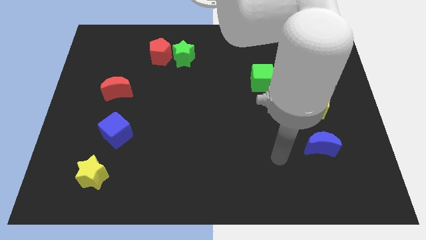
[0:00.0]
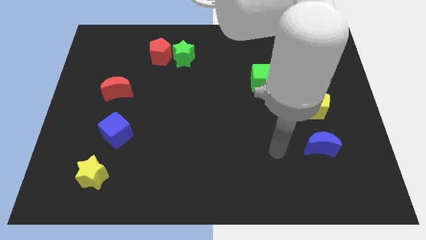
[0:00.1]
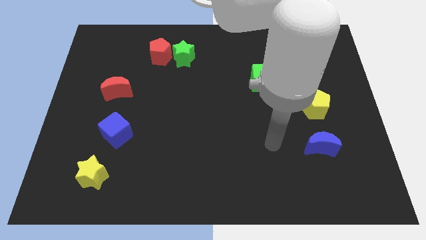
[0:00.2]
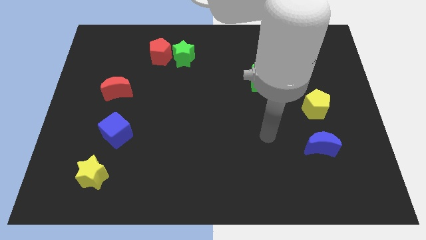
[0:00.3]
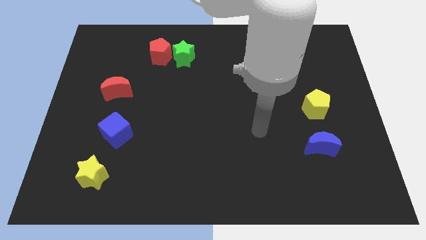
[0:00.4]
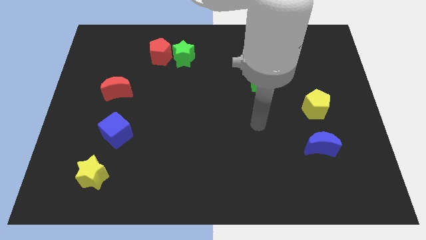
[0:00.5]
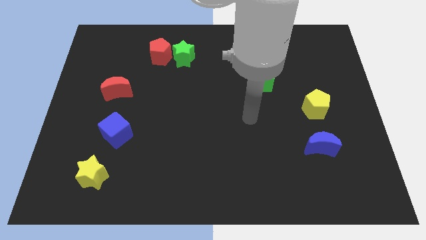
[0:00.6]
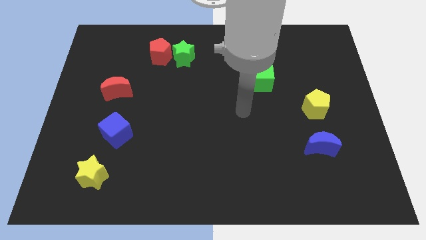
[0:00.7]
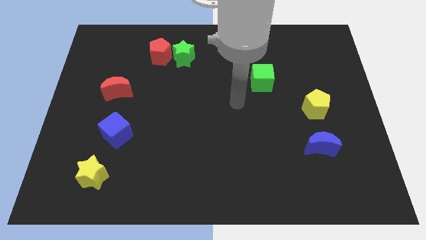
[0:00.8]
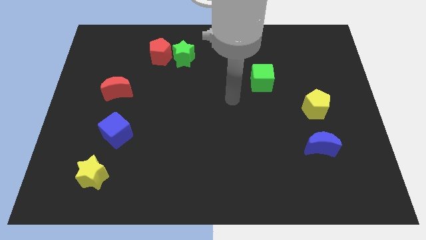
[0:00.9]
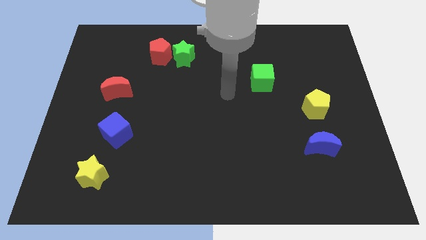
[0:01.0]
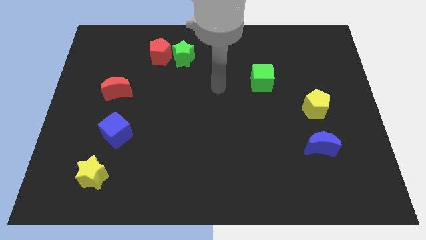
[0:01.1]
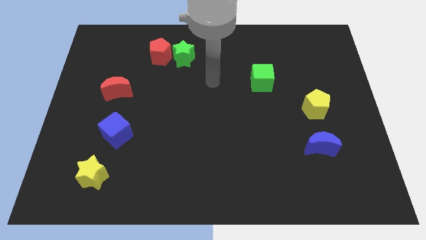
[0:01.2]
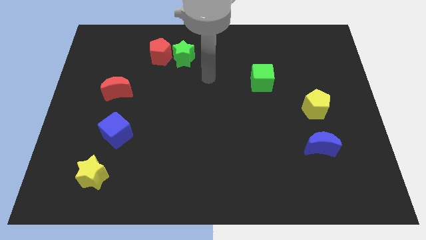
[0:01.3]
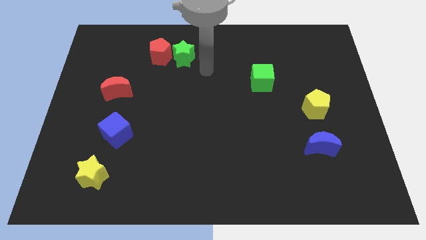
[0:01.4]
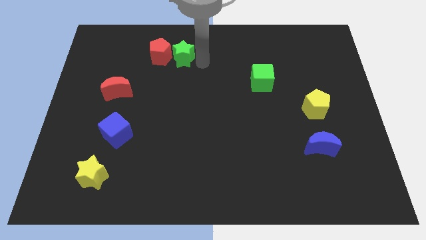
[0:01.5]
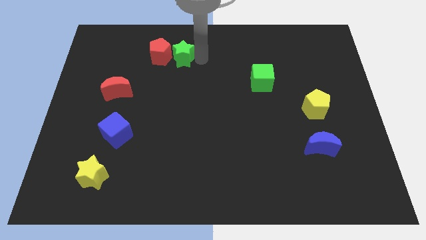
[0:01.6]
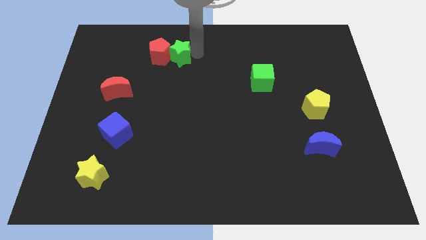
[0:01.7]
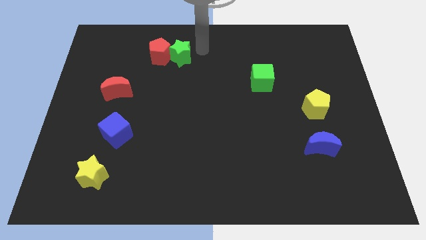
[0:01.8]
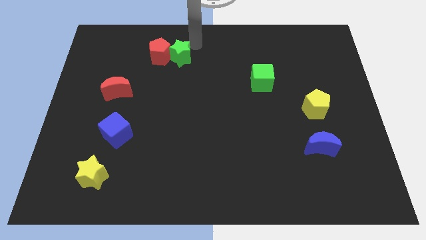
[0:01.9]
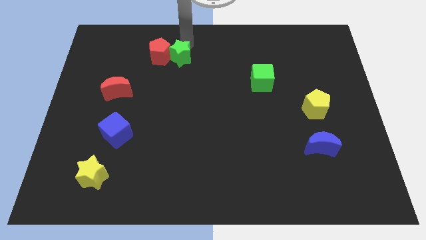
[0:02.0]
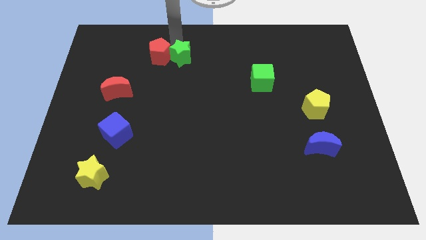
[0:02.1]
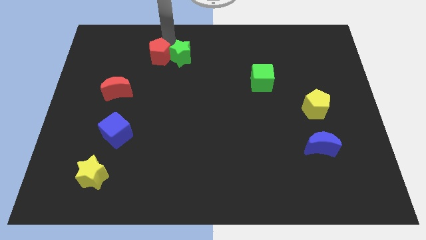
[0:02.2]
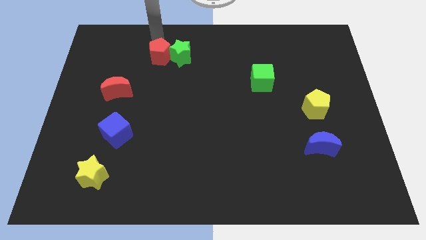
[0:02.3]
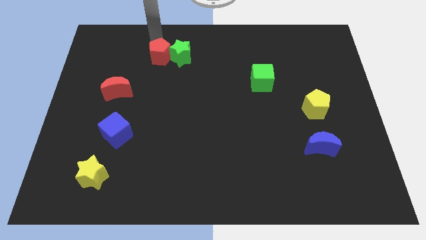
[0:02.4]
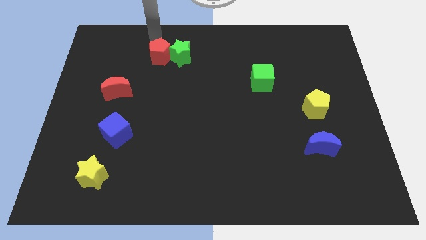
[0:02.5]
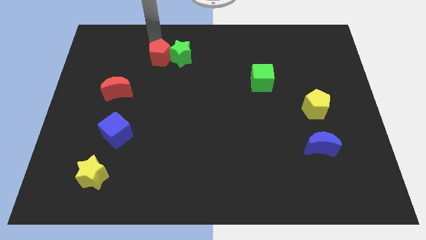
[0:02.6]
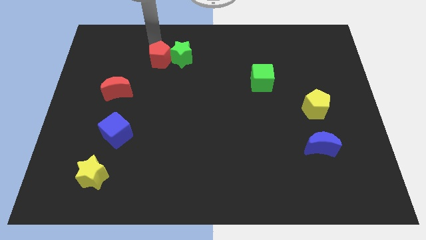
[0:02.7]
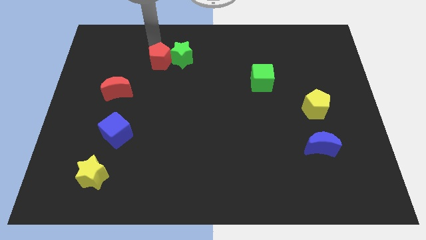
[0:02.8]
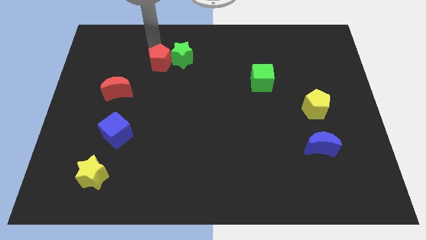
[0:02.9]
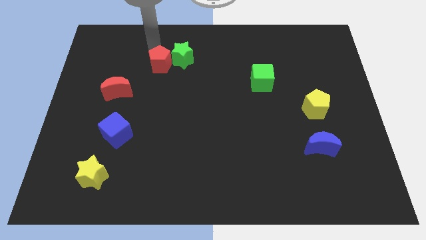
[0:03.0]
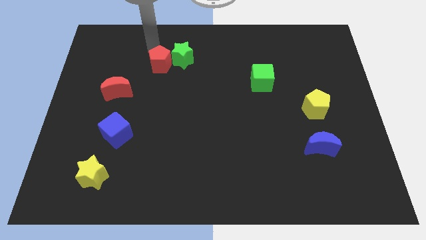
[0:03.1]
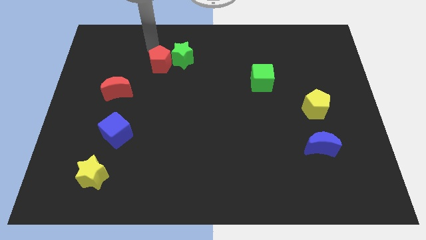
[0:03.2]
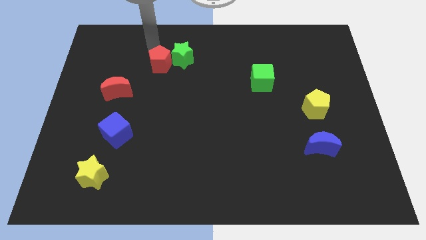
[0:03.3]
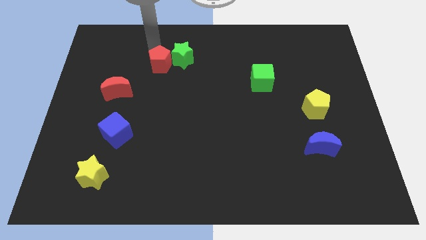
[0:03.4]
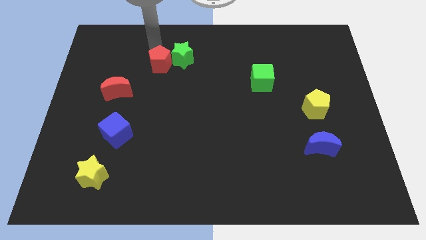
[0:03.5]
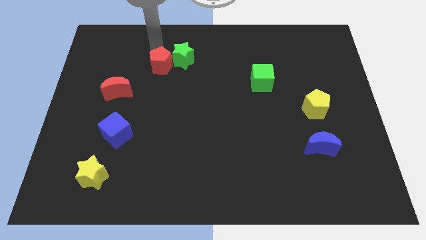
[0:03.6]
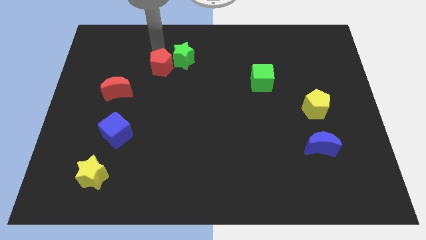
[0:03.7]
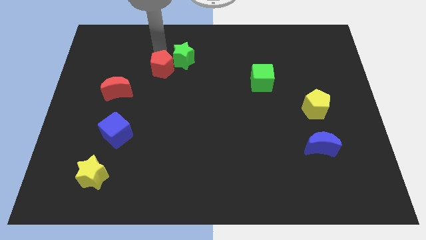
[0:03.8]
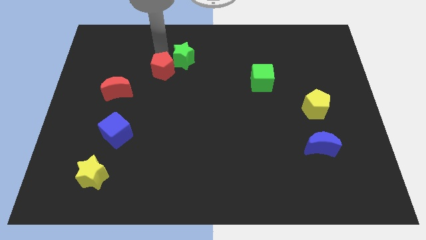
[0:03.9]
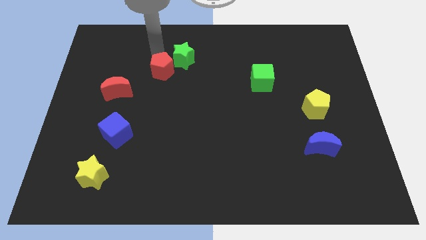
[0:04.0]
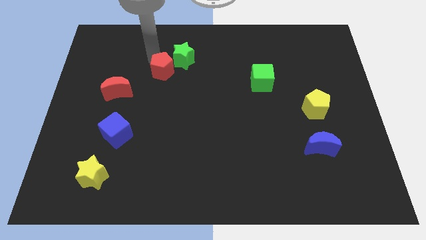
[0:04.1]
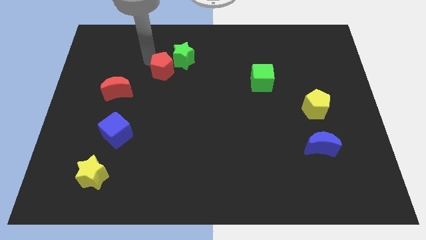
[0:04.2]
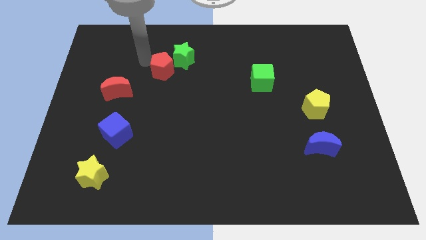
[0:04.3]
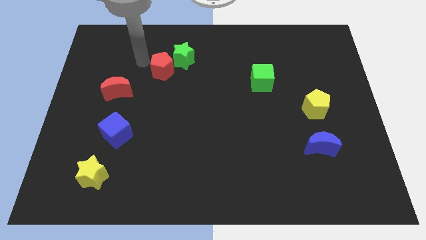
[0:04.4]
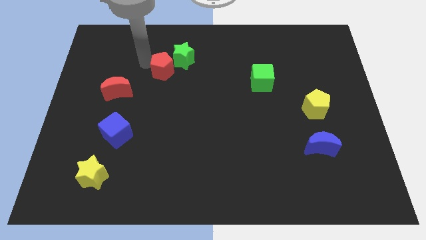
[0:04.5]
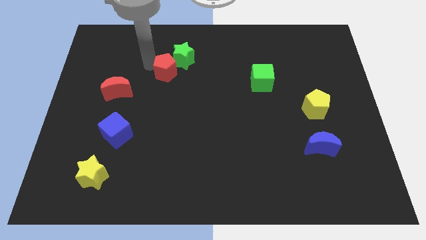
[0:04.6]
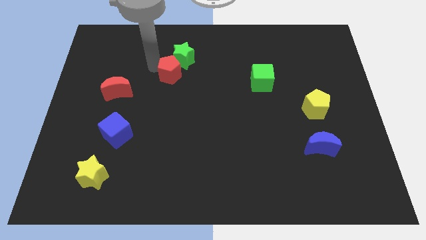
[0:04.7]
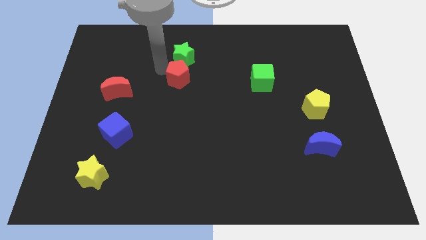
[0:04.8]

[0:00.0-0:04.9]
put the red pentagon to the center of the board

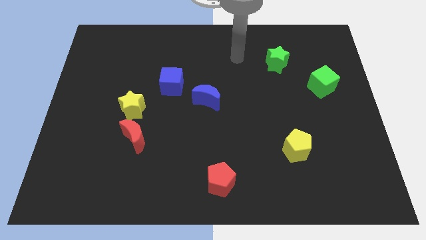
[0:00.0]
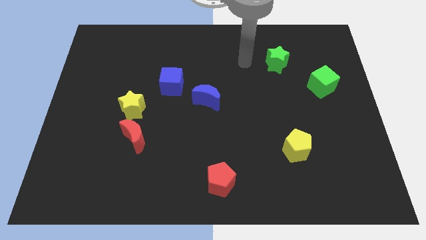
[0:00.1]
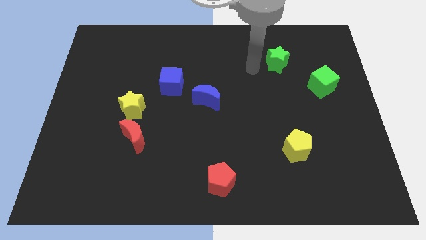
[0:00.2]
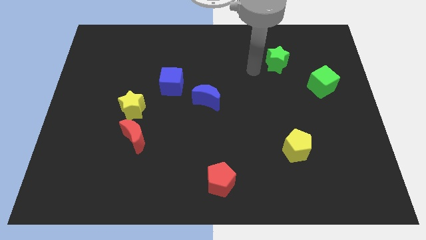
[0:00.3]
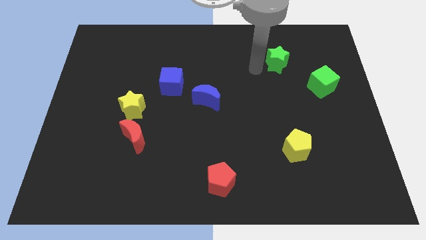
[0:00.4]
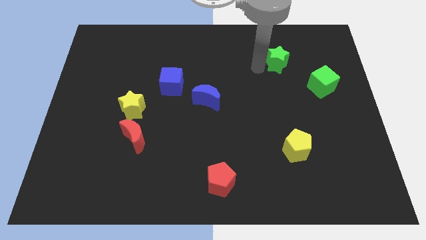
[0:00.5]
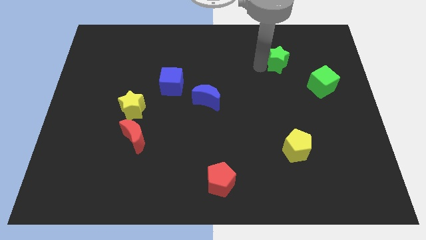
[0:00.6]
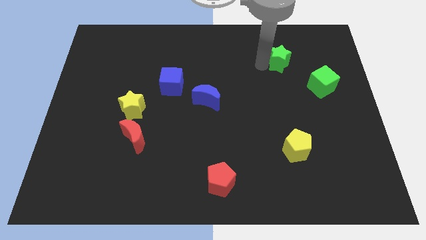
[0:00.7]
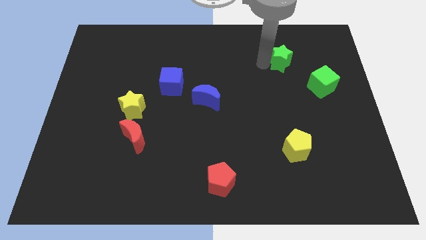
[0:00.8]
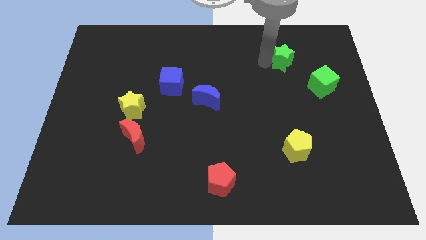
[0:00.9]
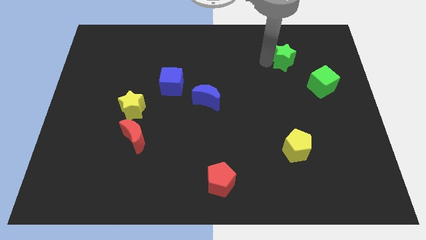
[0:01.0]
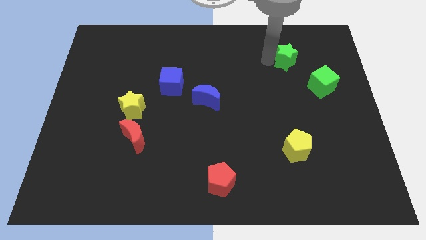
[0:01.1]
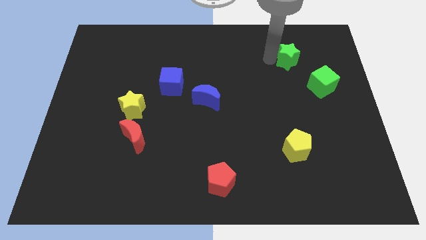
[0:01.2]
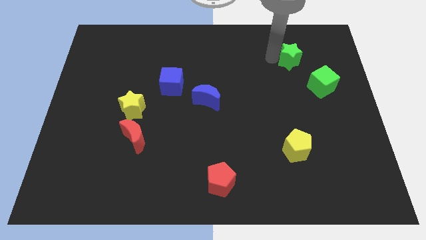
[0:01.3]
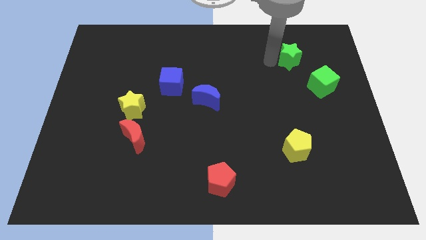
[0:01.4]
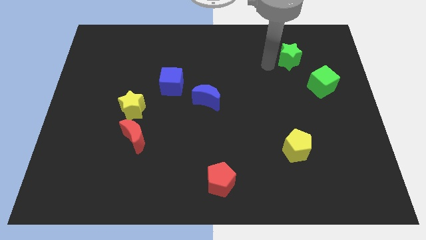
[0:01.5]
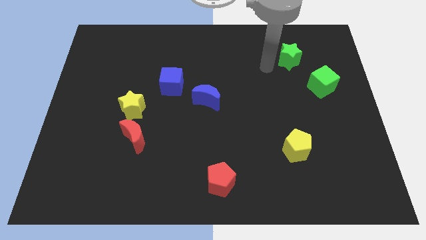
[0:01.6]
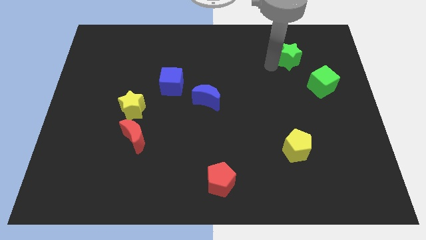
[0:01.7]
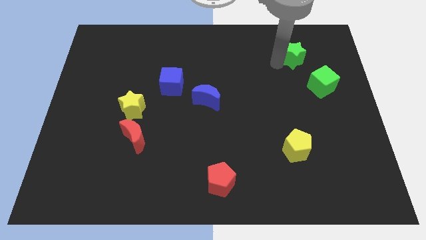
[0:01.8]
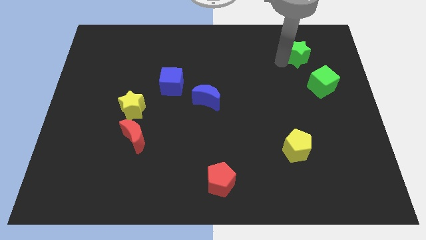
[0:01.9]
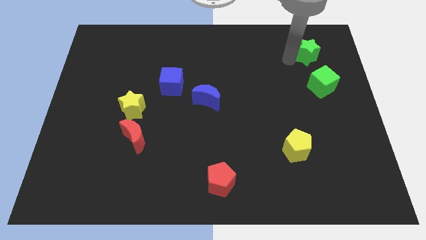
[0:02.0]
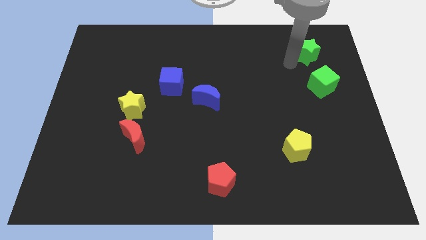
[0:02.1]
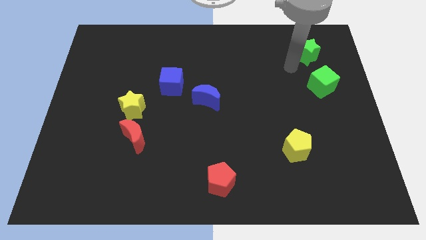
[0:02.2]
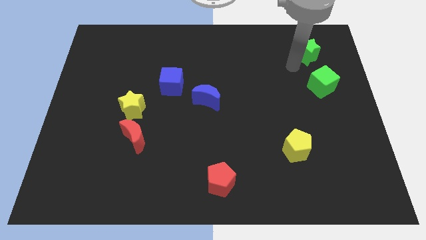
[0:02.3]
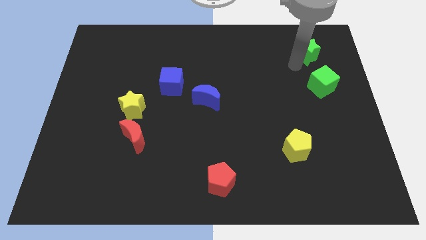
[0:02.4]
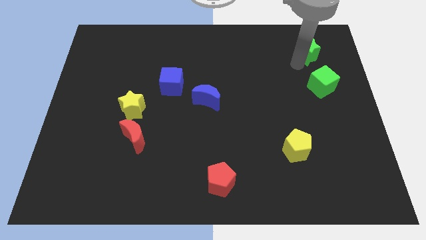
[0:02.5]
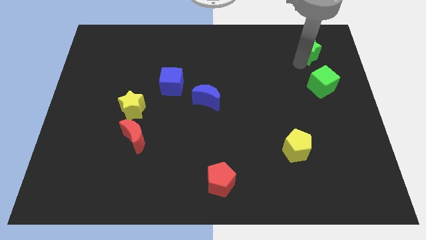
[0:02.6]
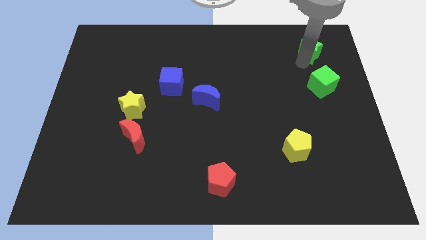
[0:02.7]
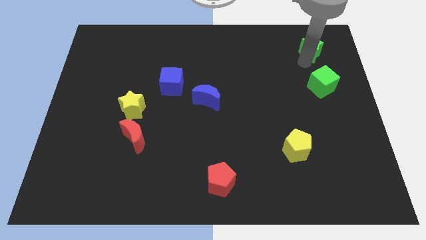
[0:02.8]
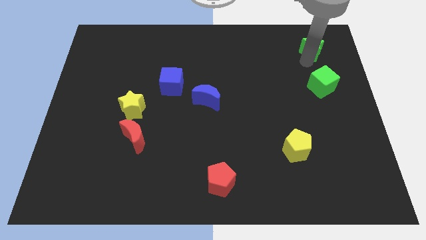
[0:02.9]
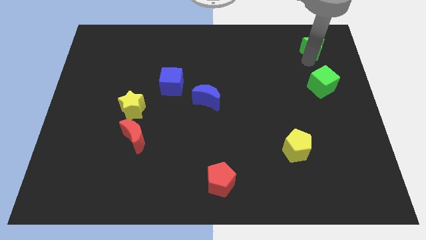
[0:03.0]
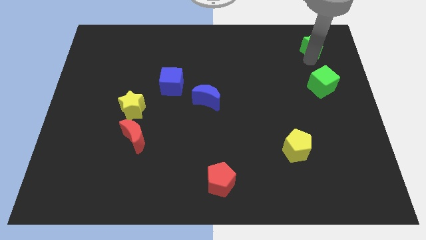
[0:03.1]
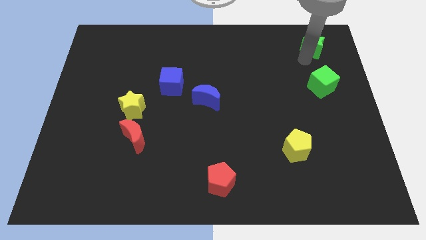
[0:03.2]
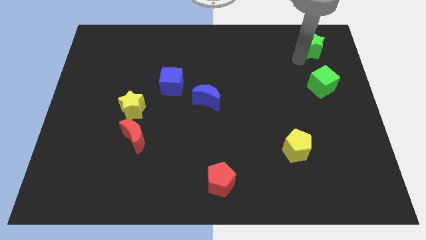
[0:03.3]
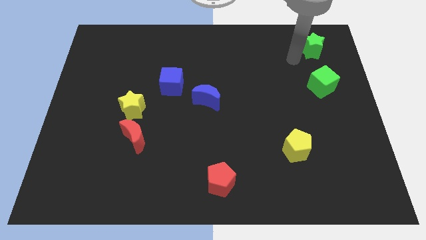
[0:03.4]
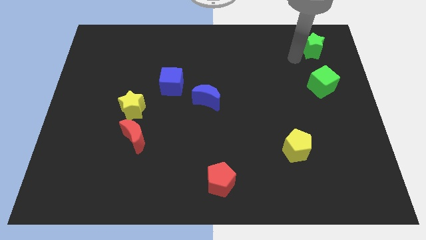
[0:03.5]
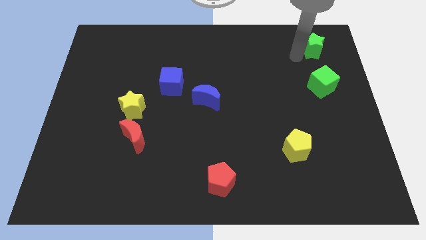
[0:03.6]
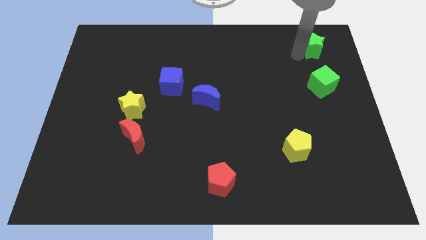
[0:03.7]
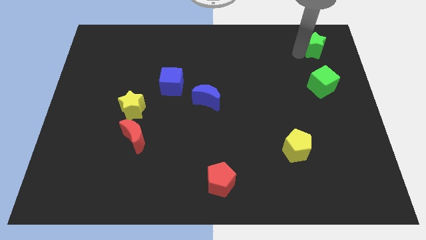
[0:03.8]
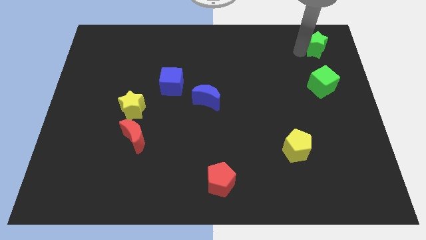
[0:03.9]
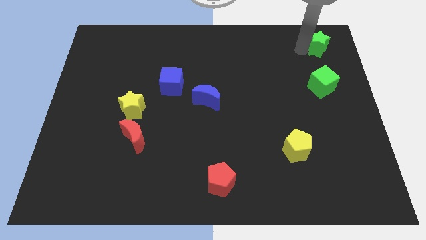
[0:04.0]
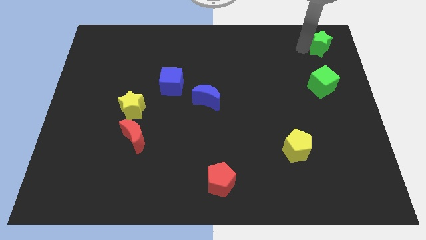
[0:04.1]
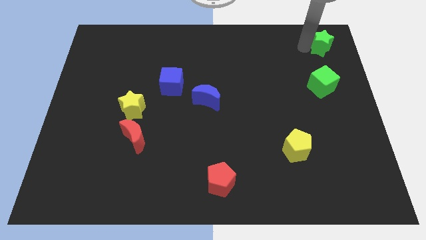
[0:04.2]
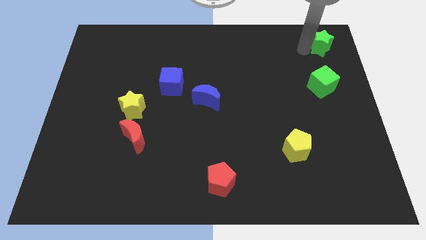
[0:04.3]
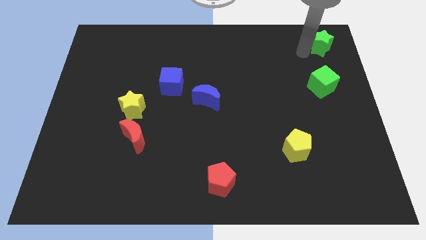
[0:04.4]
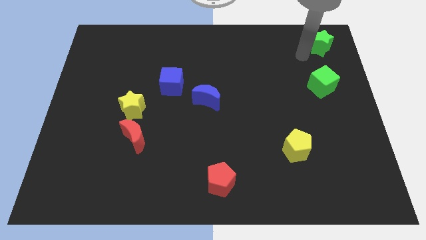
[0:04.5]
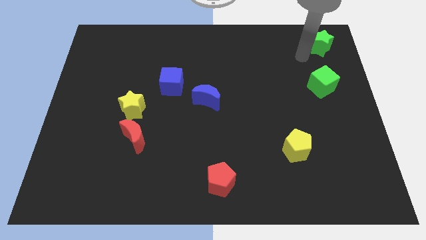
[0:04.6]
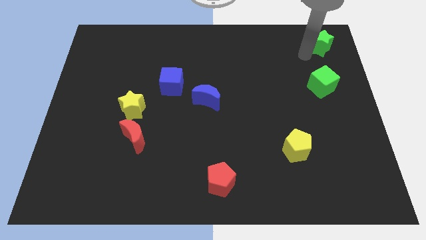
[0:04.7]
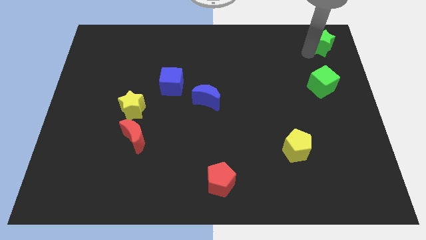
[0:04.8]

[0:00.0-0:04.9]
push the green star to the top right corner
